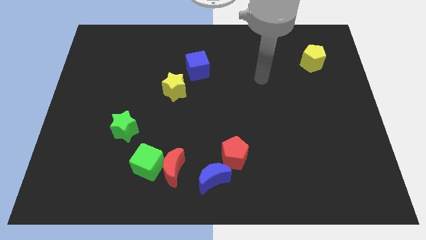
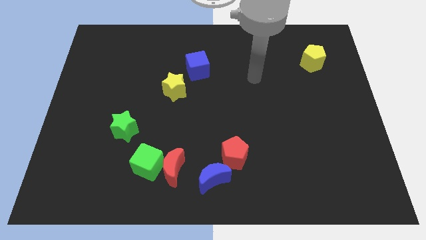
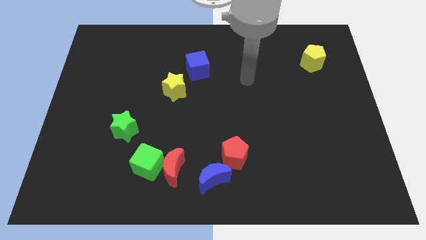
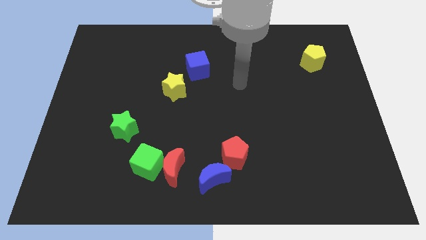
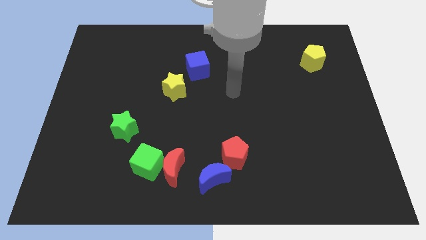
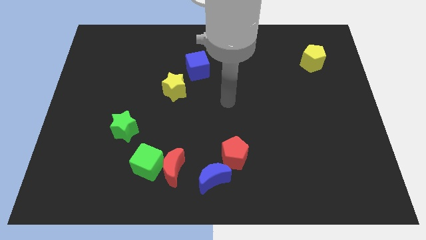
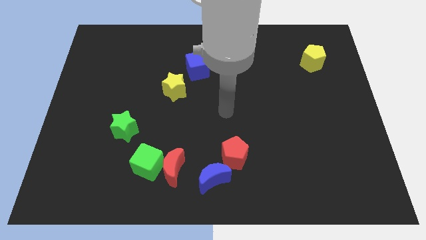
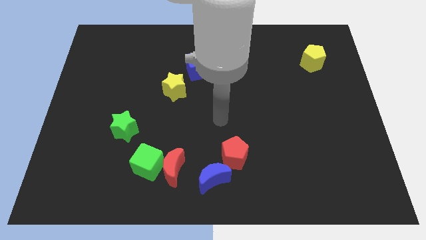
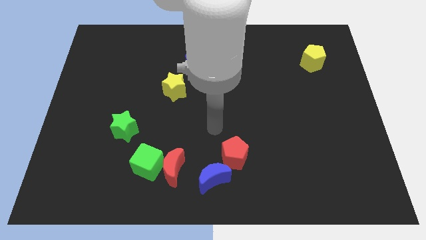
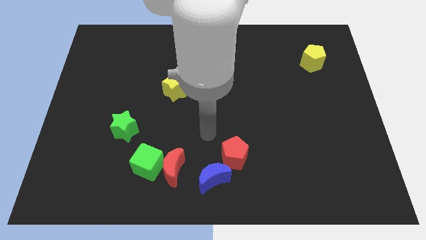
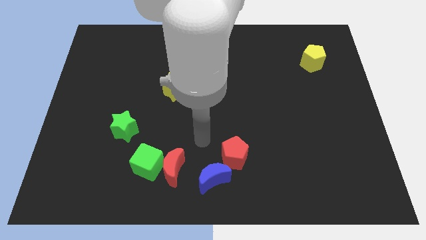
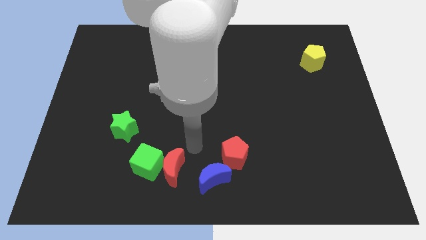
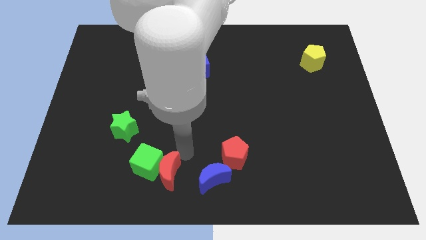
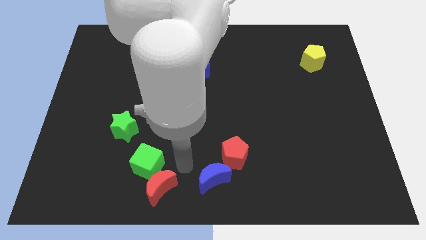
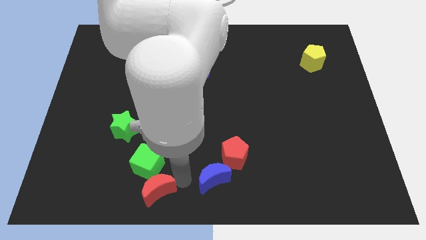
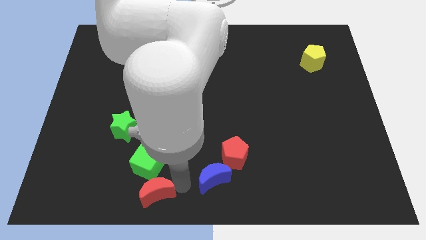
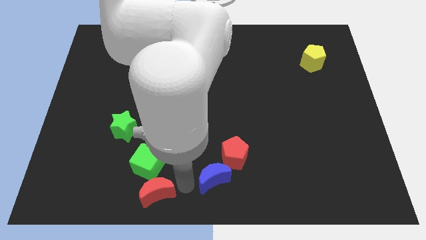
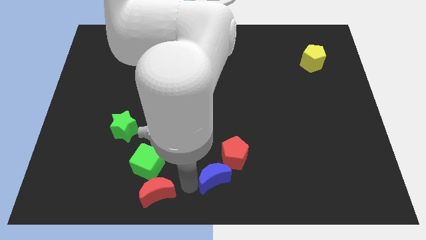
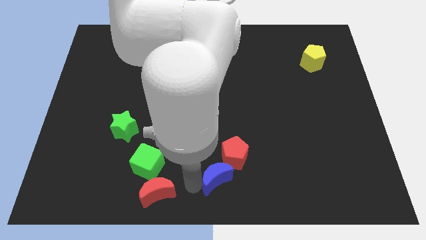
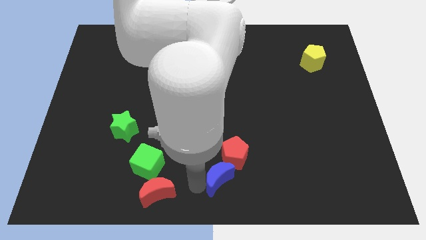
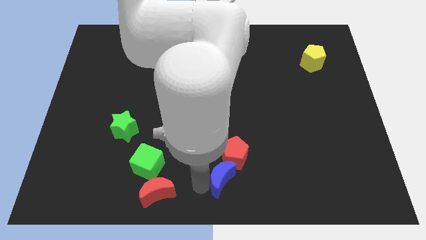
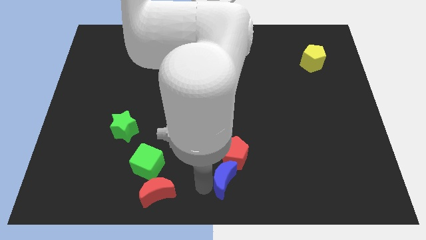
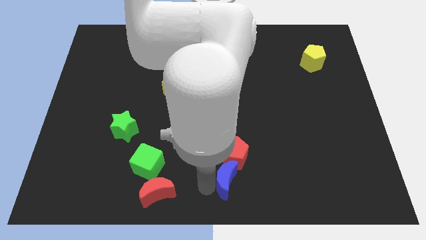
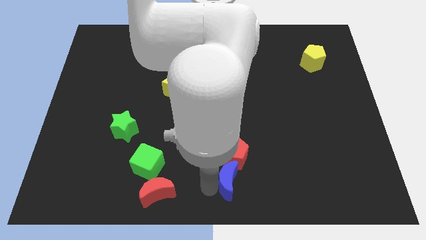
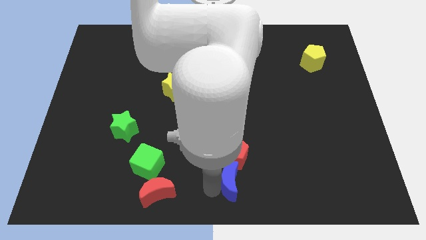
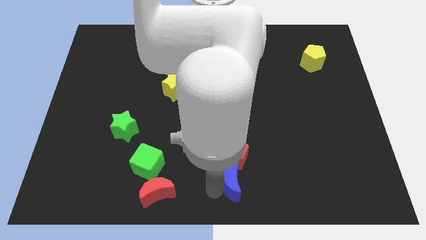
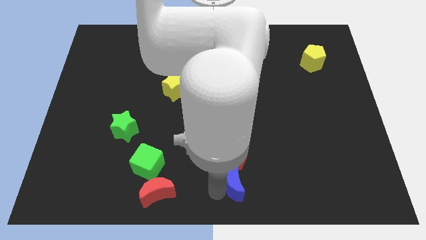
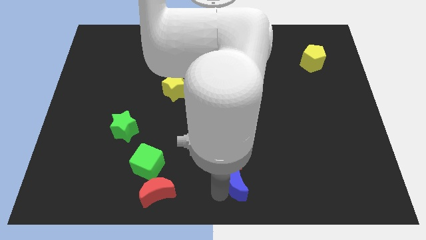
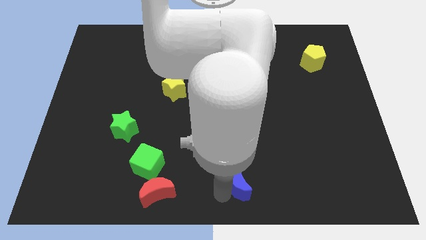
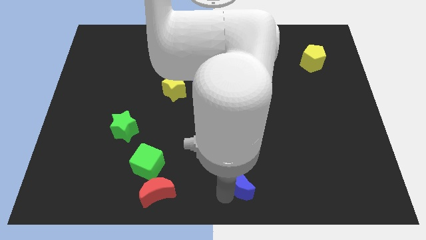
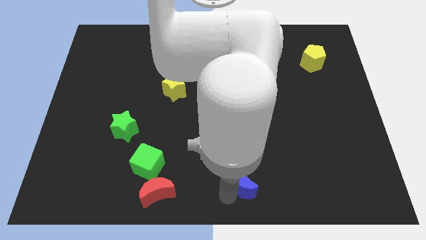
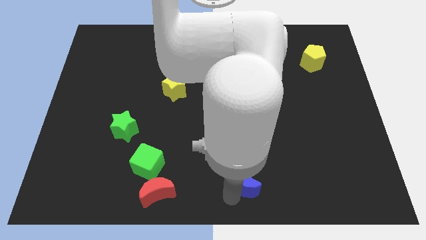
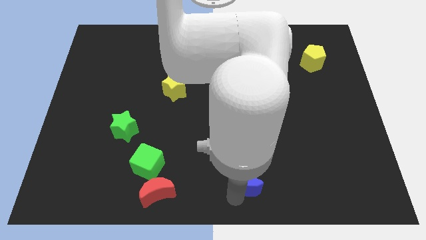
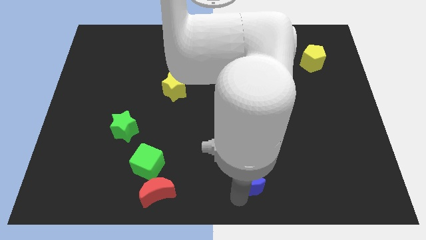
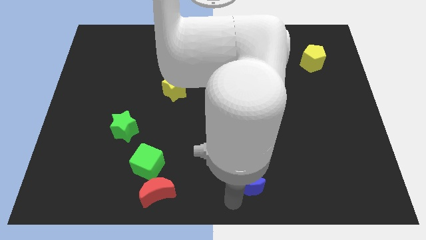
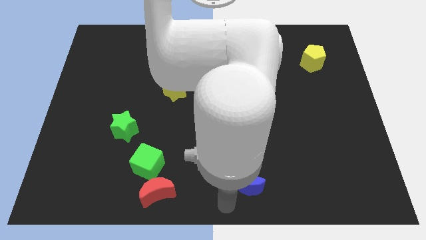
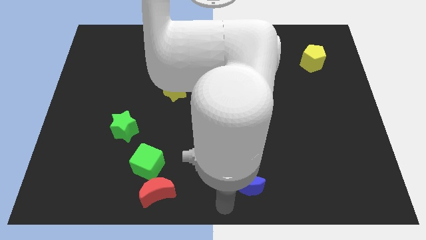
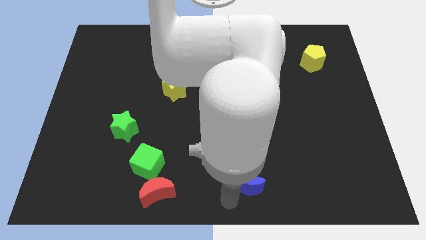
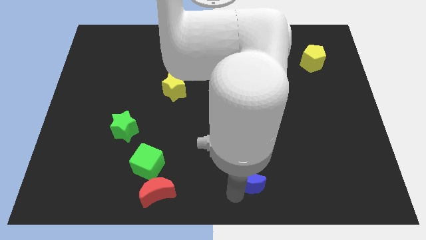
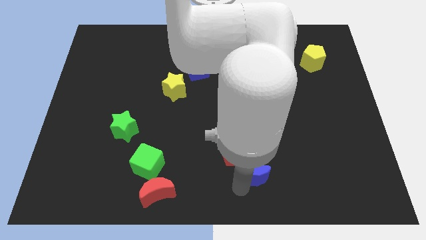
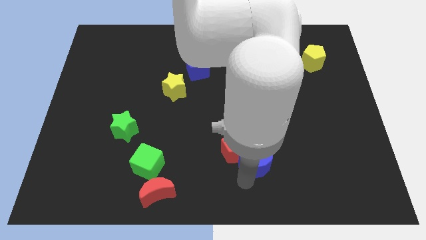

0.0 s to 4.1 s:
move the blue moon up and to the right diagonally a bit

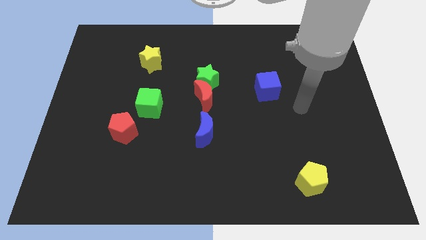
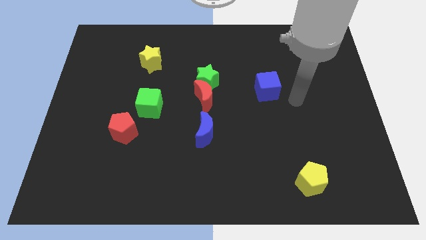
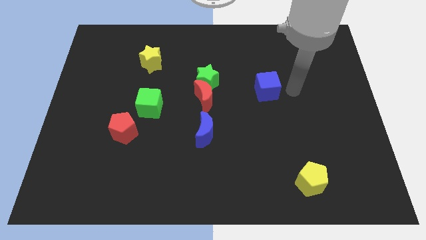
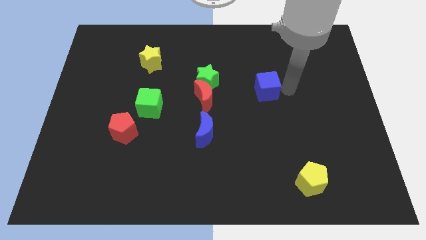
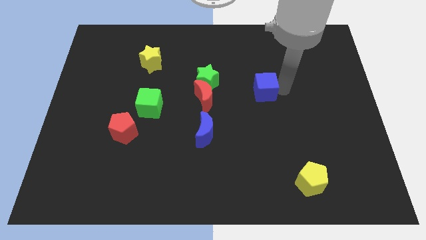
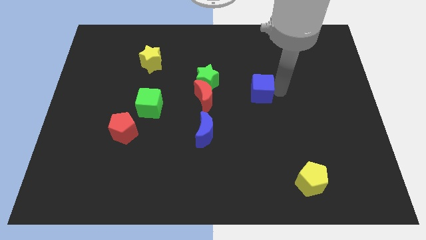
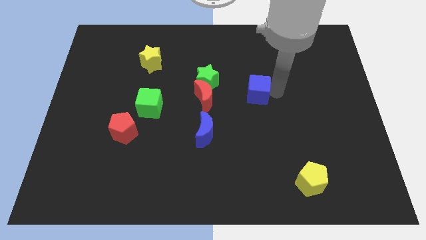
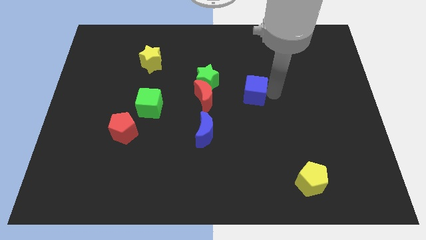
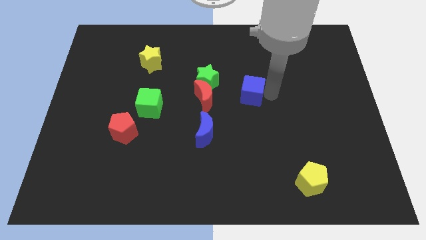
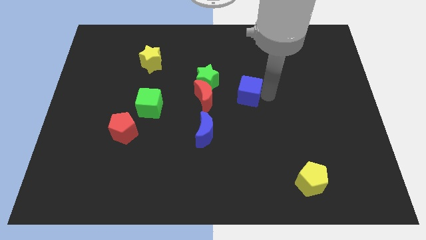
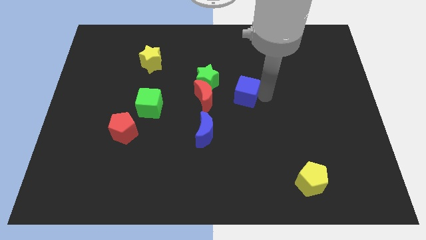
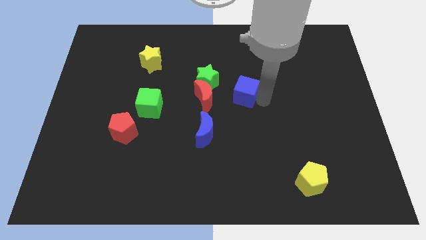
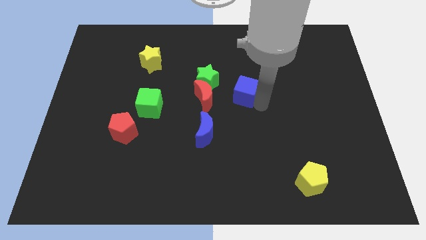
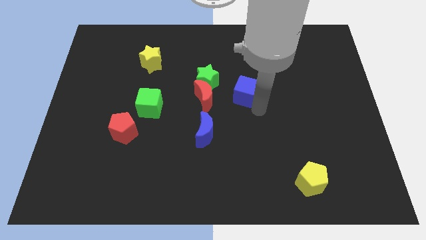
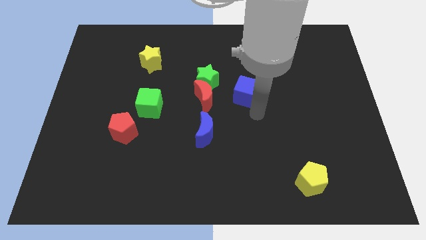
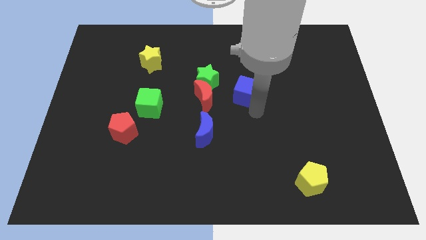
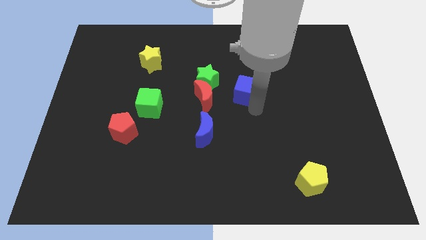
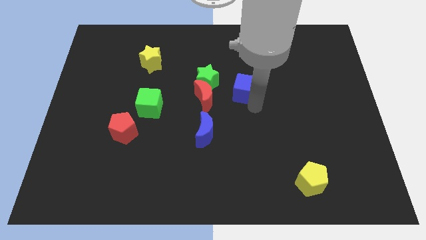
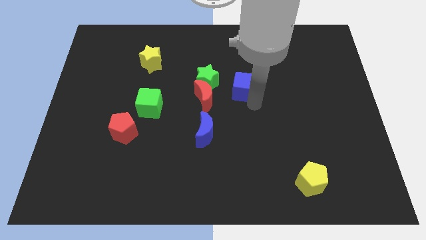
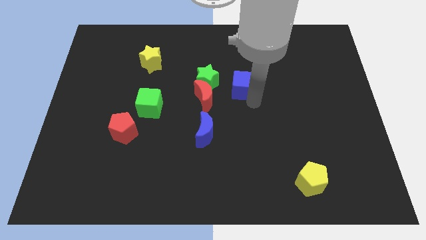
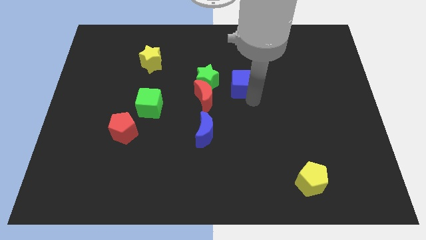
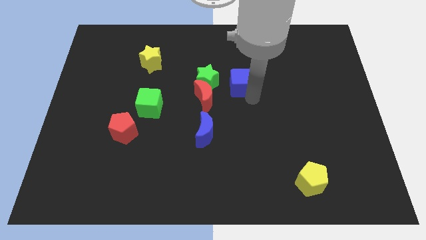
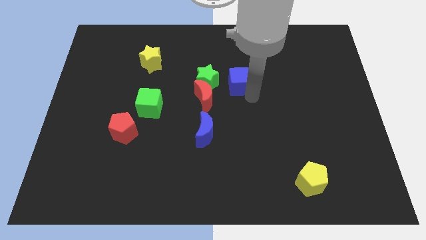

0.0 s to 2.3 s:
slide the blue cube left a little bit

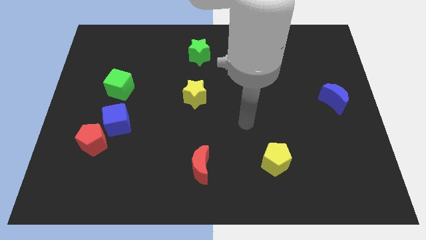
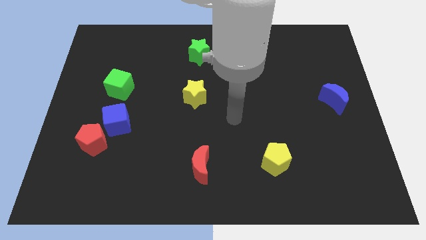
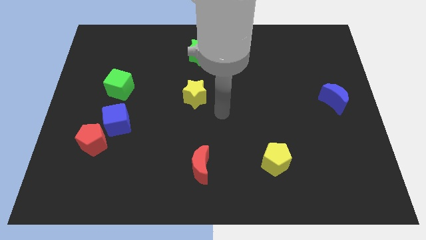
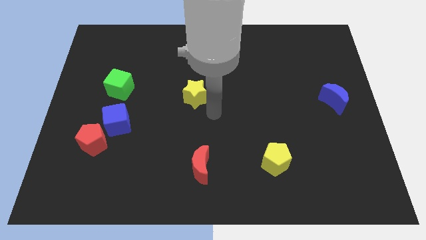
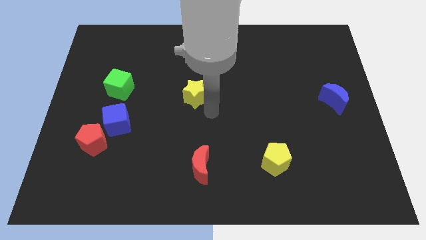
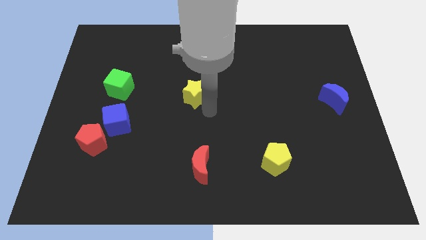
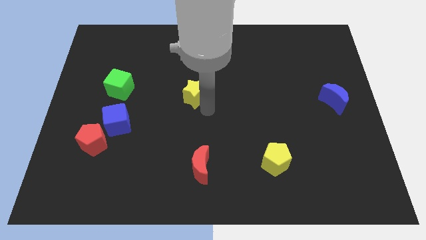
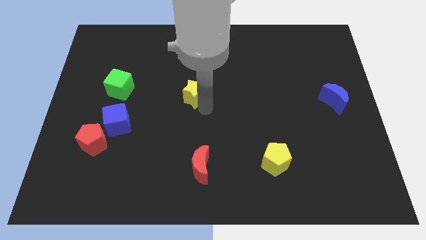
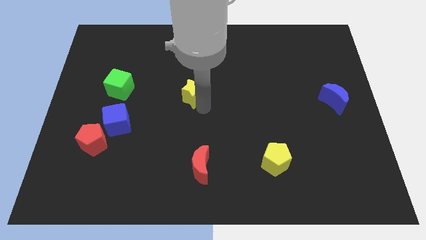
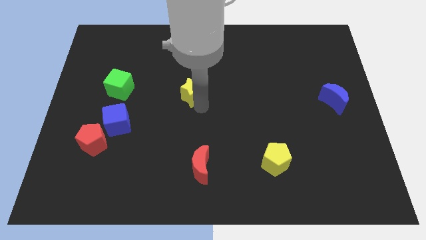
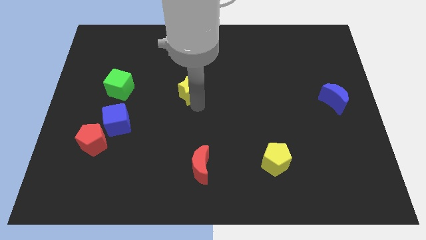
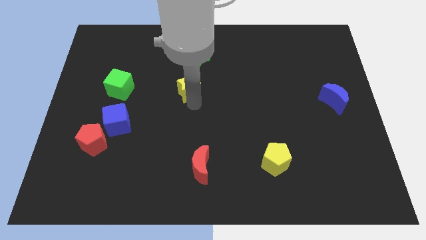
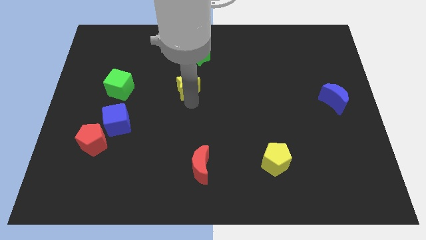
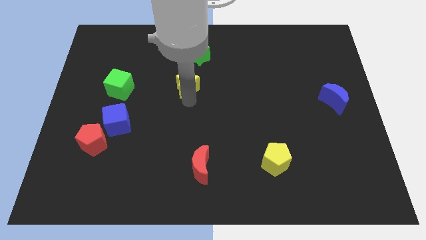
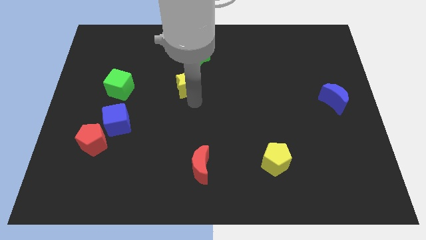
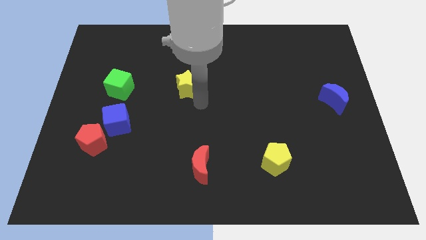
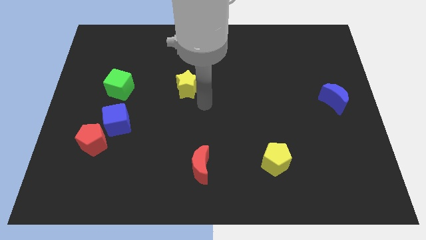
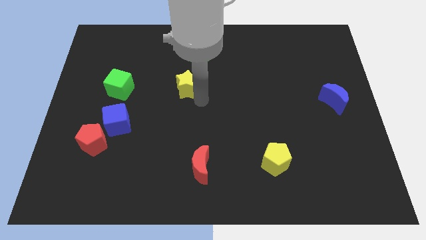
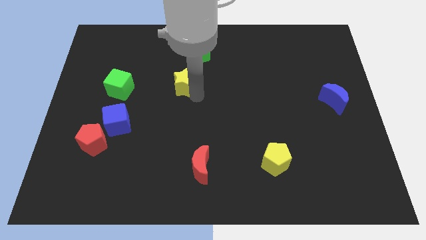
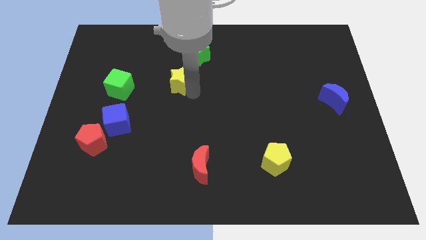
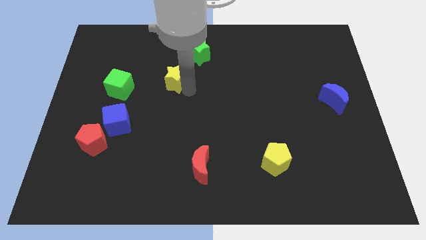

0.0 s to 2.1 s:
move the yellow star a bit upwards and left
